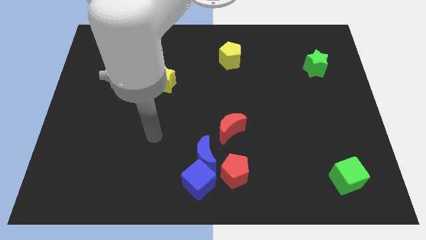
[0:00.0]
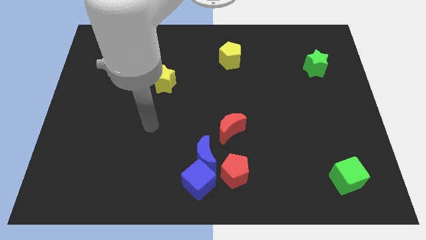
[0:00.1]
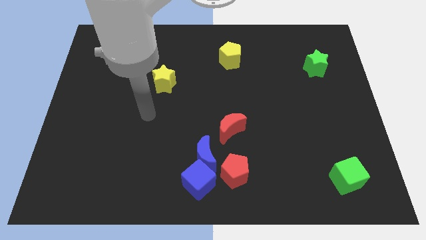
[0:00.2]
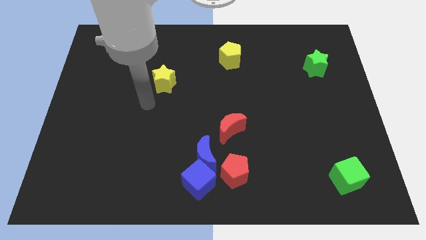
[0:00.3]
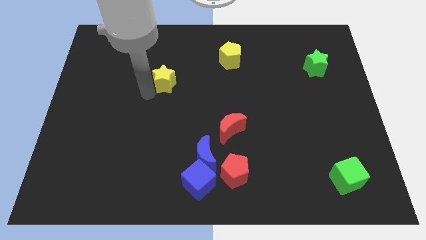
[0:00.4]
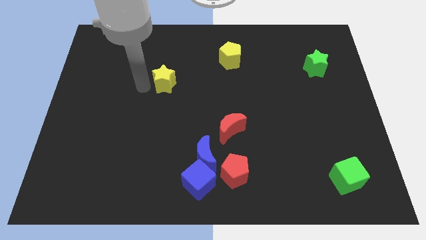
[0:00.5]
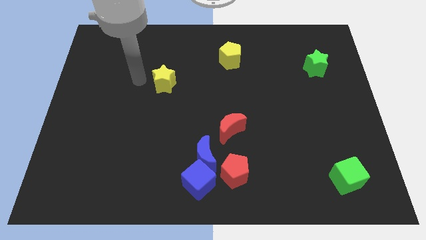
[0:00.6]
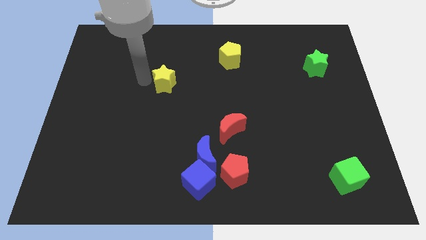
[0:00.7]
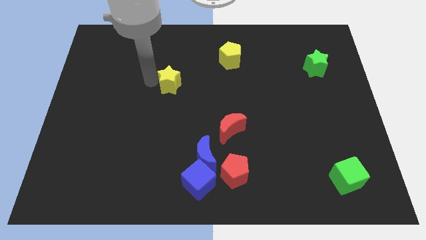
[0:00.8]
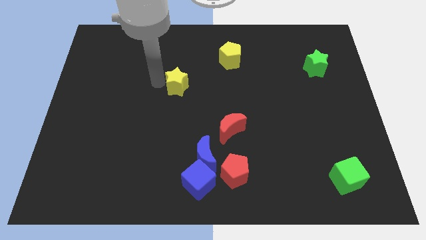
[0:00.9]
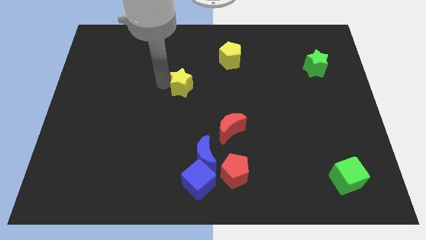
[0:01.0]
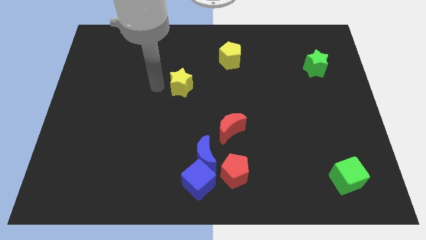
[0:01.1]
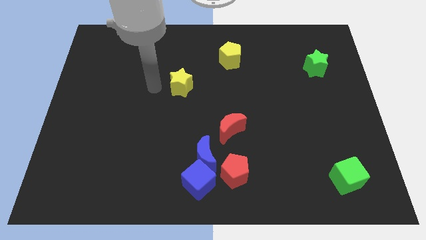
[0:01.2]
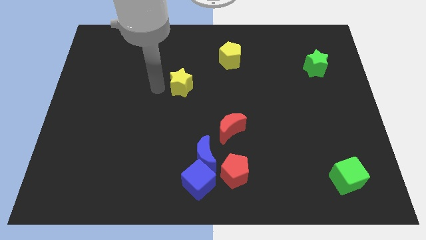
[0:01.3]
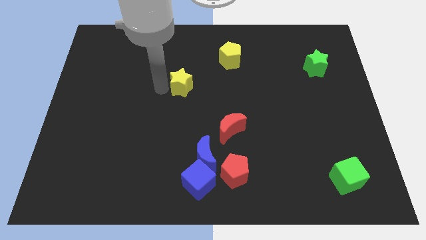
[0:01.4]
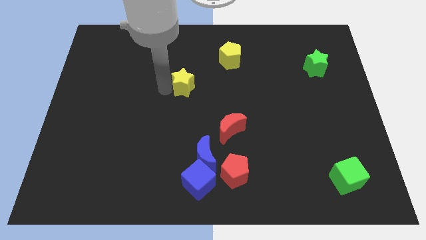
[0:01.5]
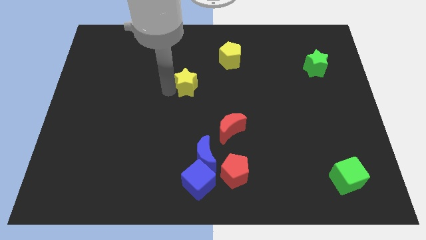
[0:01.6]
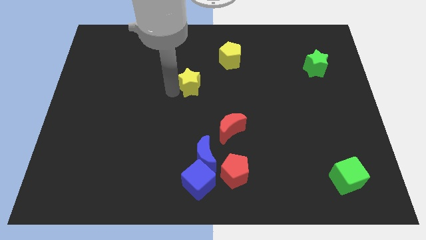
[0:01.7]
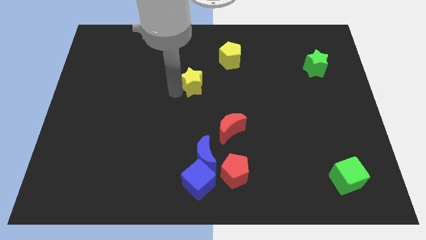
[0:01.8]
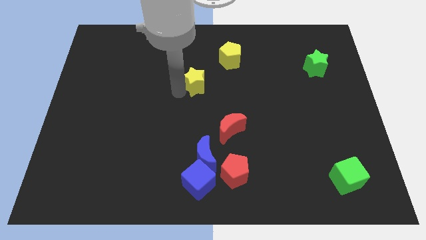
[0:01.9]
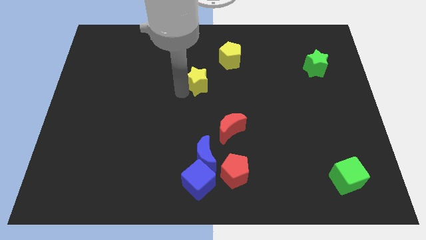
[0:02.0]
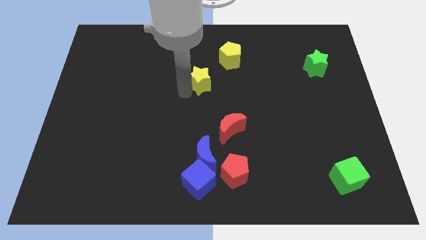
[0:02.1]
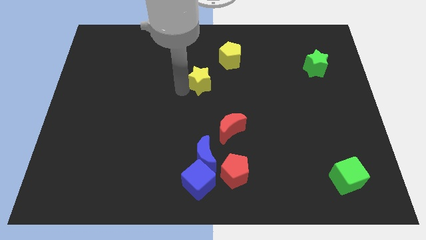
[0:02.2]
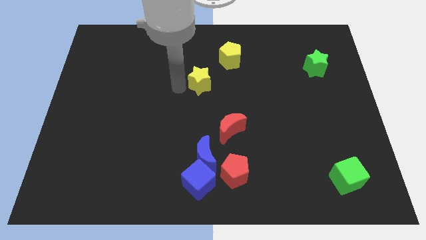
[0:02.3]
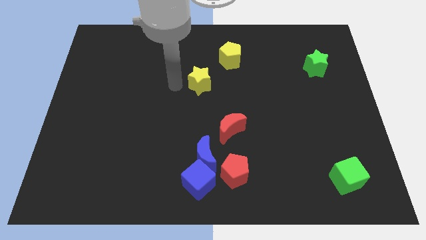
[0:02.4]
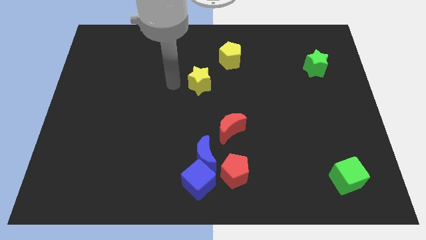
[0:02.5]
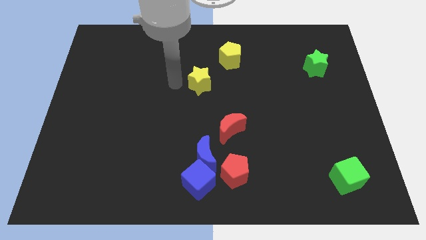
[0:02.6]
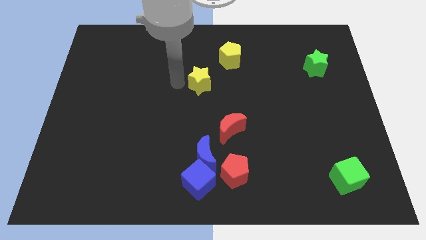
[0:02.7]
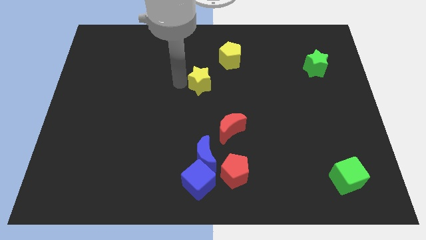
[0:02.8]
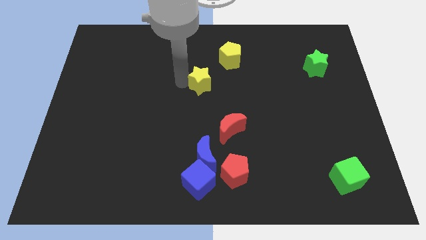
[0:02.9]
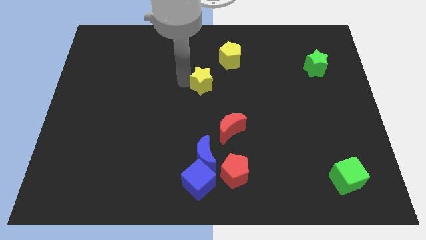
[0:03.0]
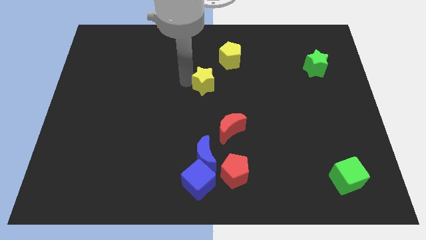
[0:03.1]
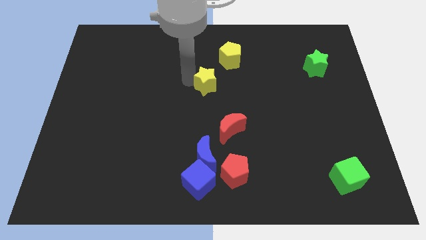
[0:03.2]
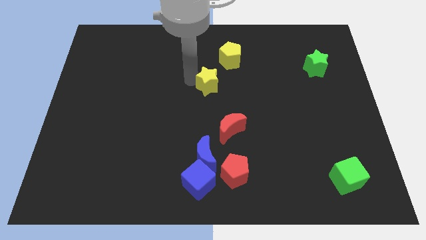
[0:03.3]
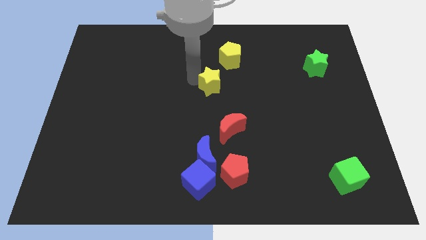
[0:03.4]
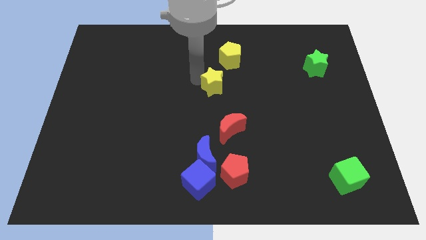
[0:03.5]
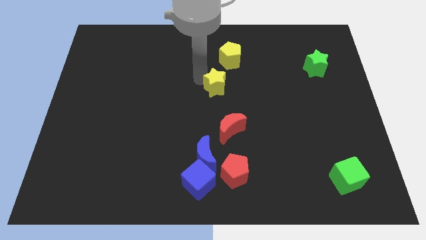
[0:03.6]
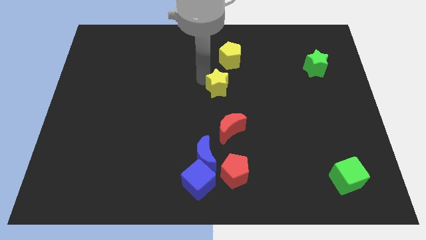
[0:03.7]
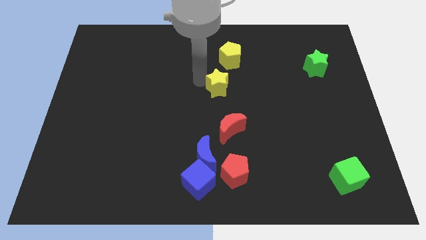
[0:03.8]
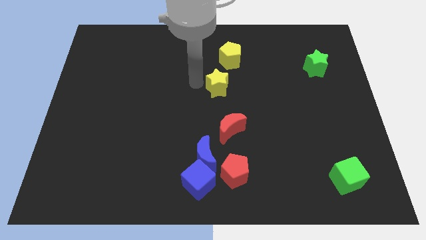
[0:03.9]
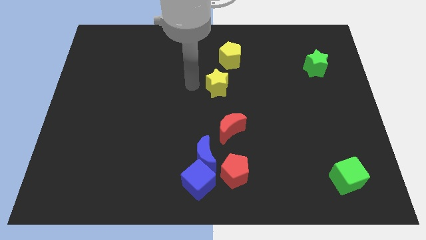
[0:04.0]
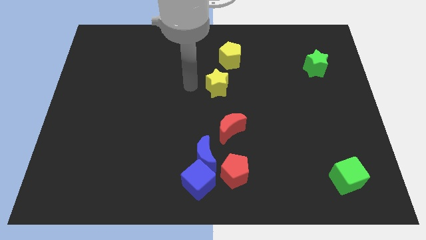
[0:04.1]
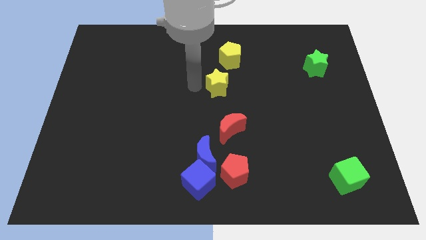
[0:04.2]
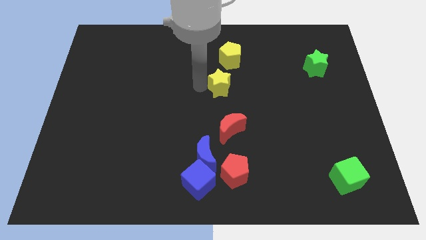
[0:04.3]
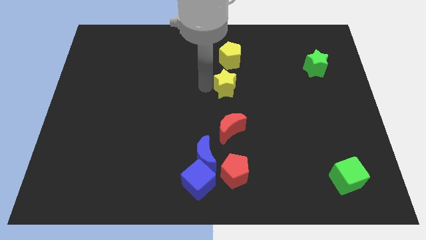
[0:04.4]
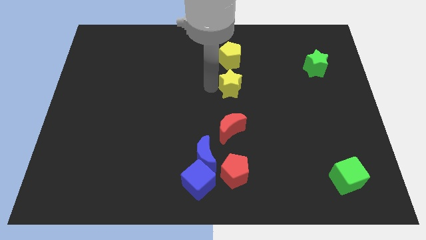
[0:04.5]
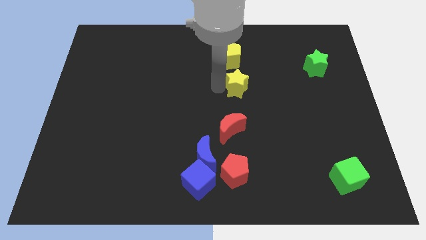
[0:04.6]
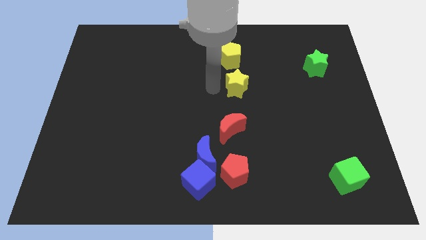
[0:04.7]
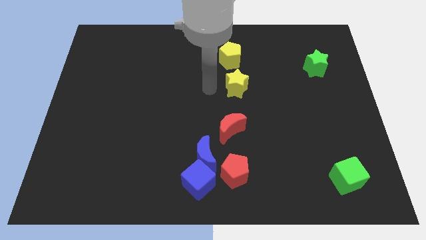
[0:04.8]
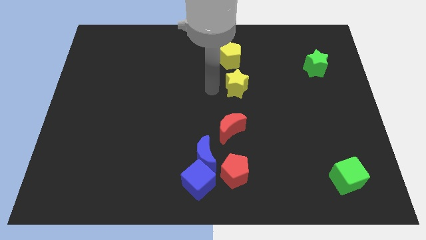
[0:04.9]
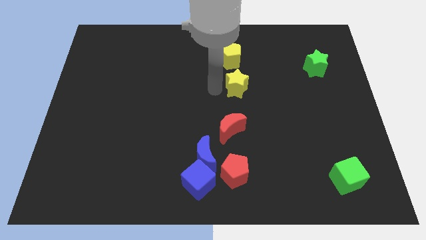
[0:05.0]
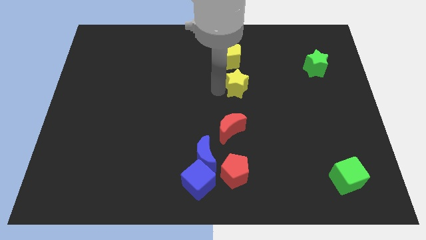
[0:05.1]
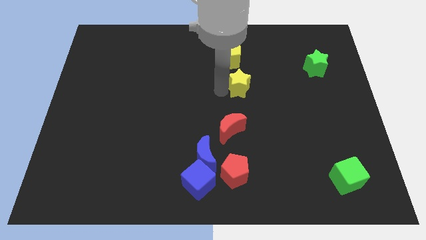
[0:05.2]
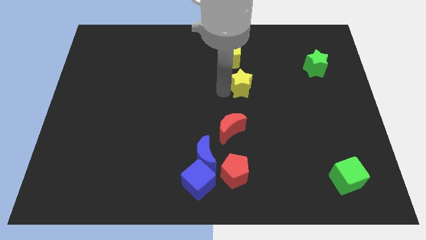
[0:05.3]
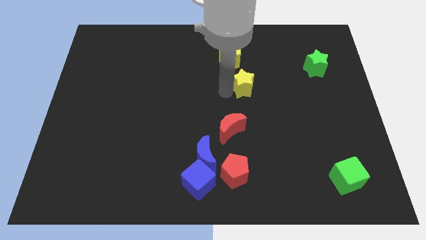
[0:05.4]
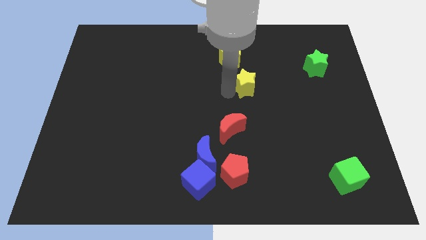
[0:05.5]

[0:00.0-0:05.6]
slide the yellow star to the right

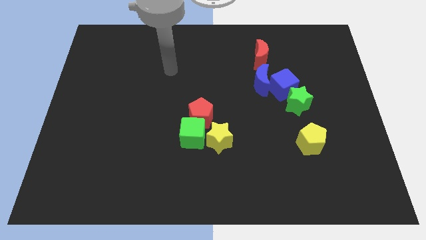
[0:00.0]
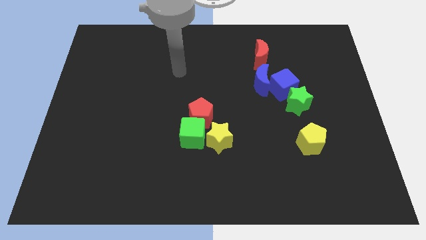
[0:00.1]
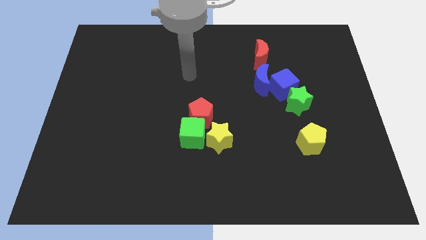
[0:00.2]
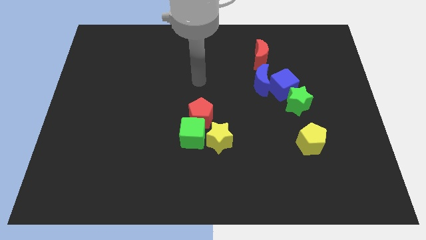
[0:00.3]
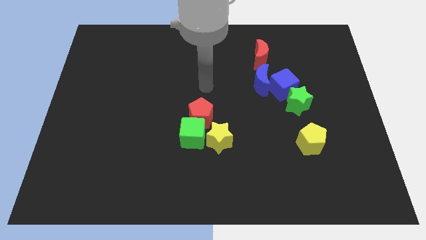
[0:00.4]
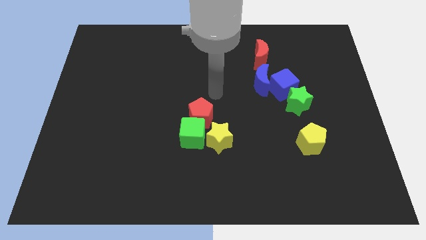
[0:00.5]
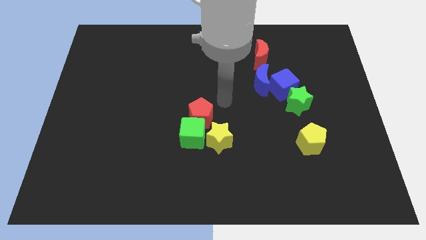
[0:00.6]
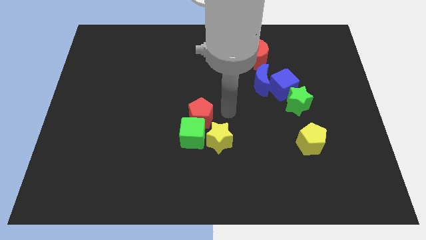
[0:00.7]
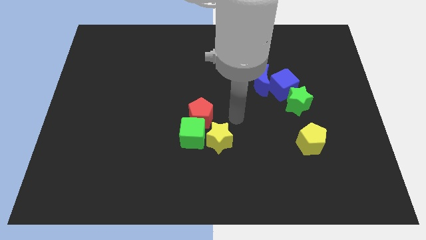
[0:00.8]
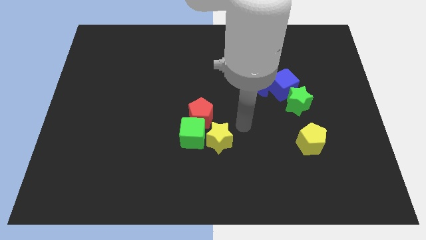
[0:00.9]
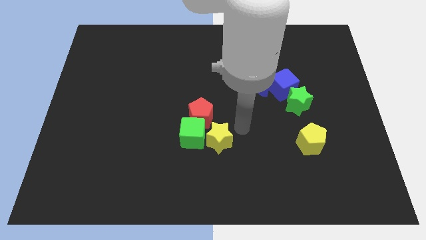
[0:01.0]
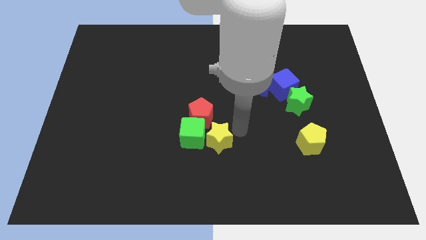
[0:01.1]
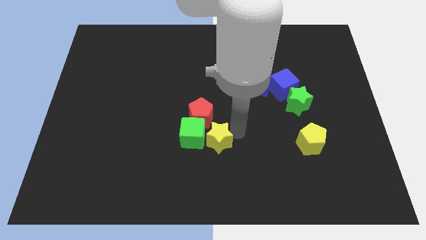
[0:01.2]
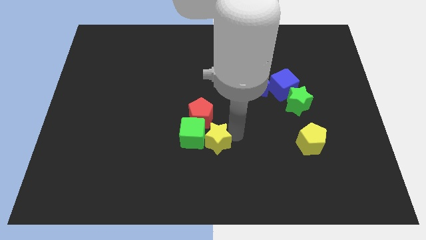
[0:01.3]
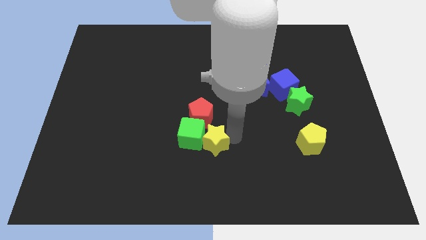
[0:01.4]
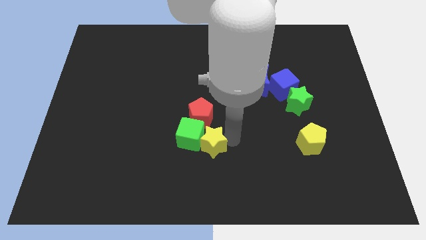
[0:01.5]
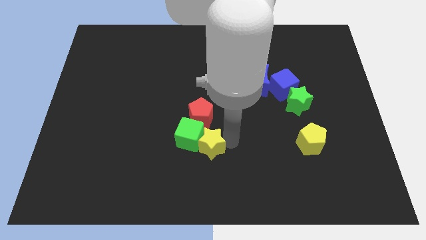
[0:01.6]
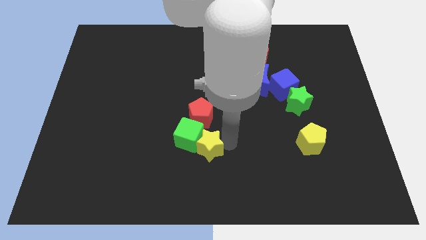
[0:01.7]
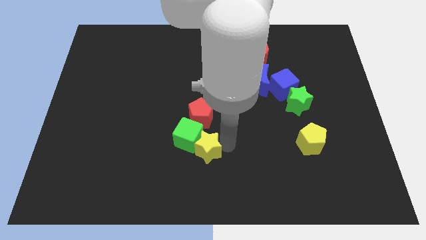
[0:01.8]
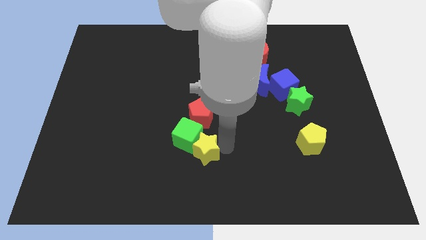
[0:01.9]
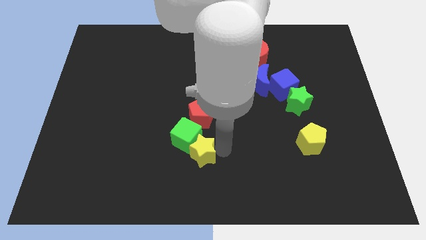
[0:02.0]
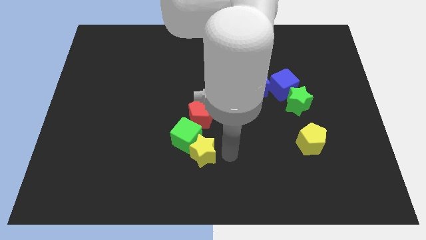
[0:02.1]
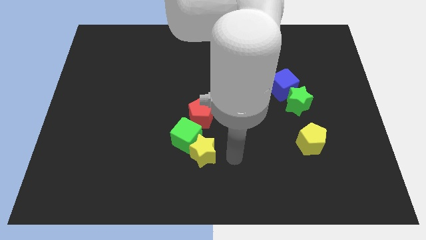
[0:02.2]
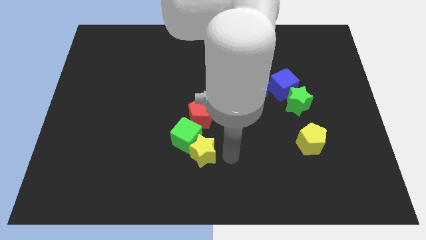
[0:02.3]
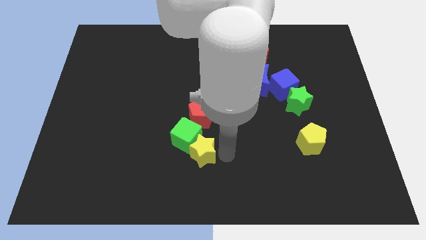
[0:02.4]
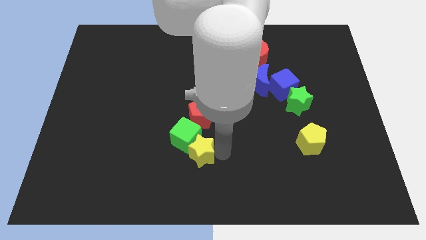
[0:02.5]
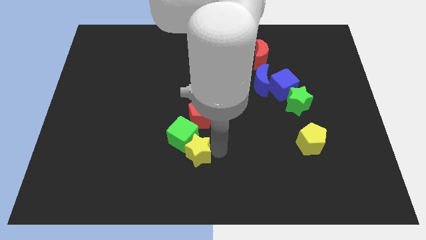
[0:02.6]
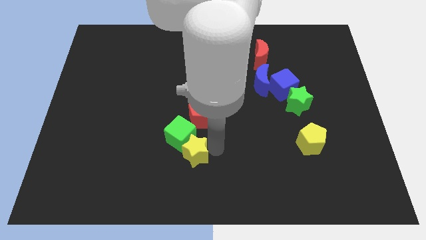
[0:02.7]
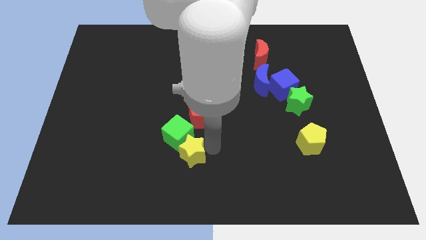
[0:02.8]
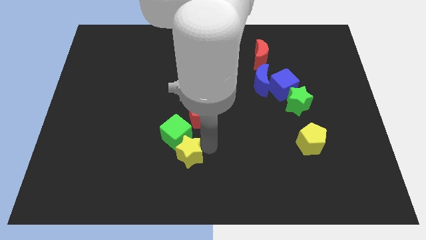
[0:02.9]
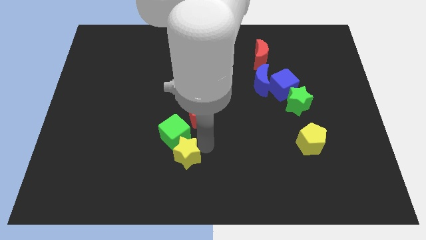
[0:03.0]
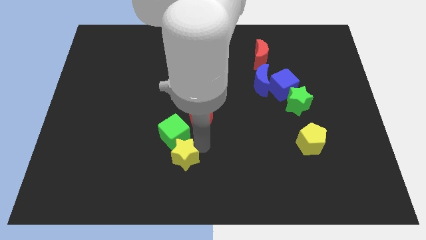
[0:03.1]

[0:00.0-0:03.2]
slightly move the yellow star left
